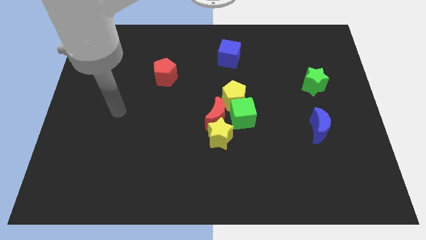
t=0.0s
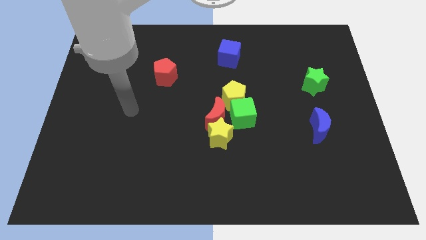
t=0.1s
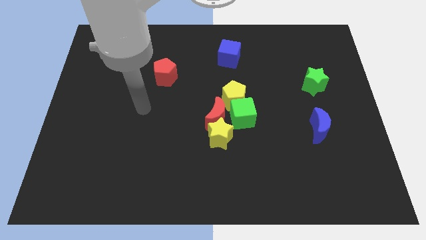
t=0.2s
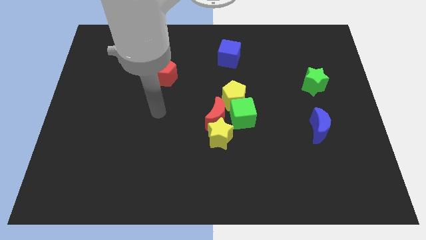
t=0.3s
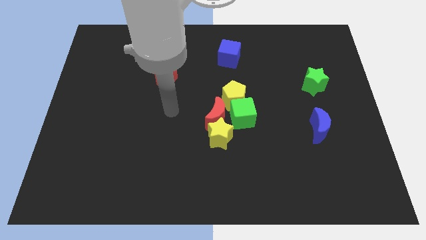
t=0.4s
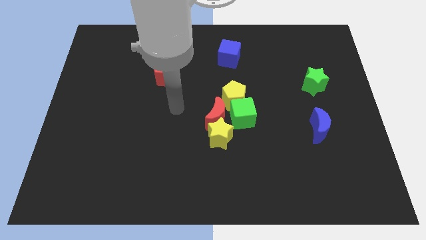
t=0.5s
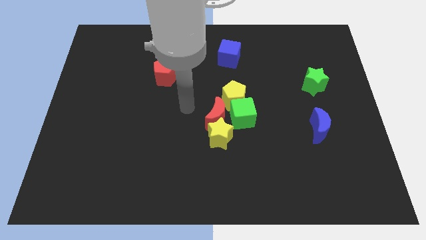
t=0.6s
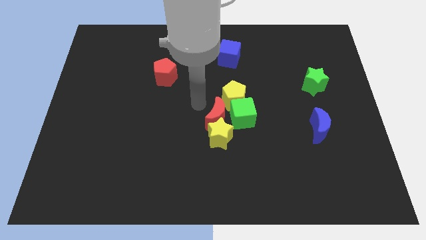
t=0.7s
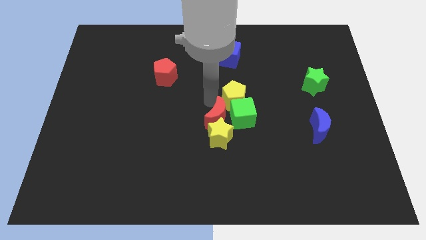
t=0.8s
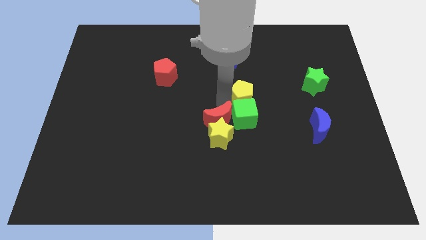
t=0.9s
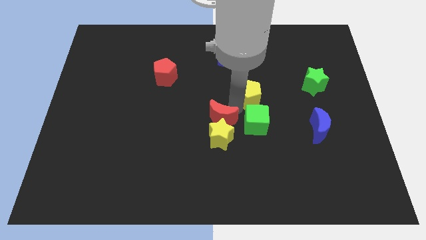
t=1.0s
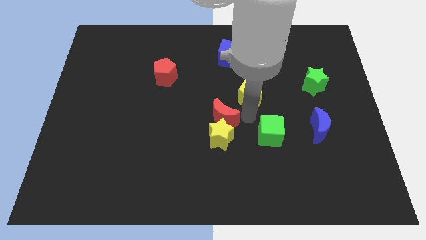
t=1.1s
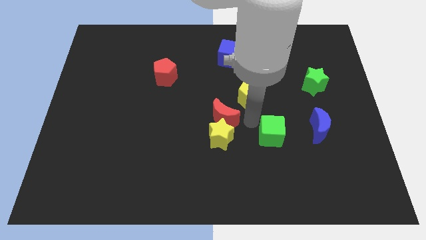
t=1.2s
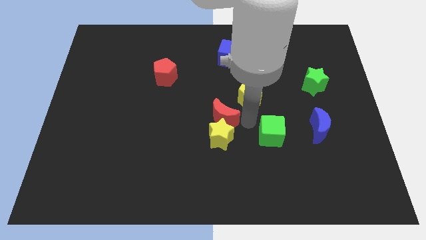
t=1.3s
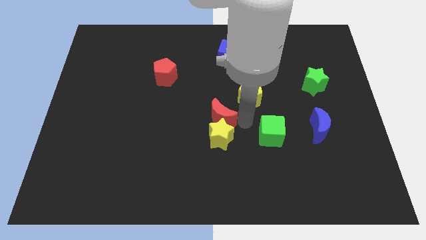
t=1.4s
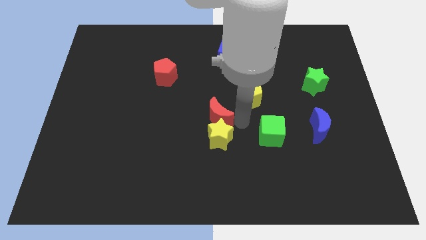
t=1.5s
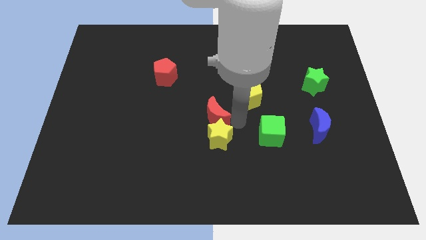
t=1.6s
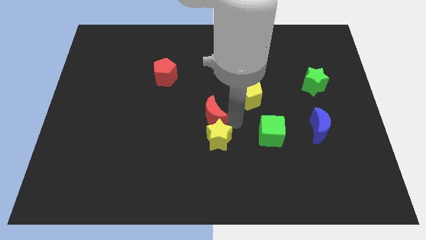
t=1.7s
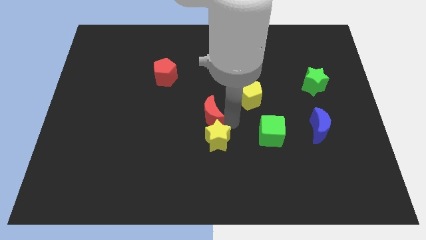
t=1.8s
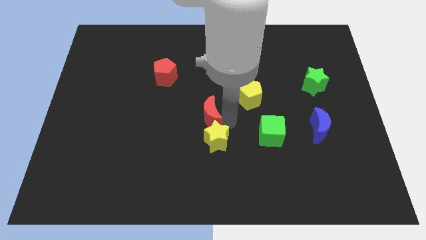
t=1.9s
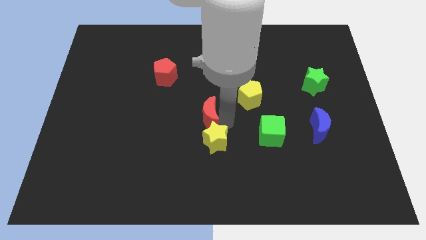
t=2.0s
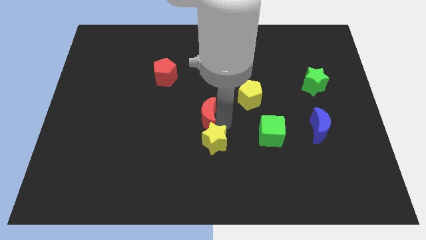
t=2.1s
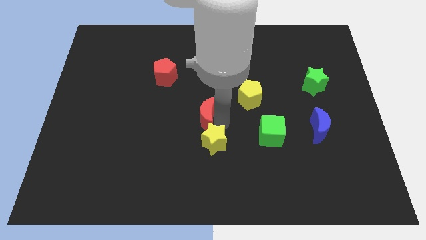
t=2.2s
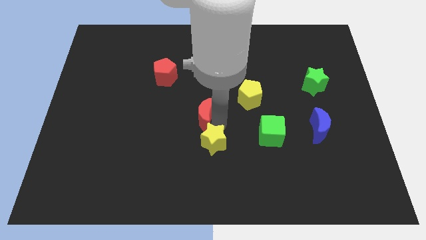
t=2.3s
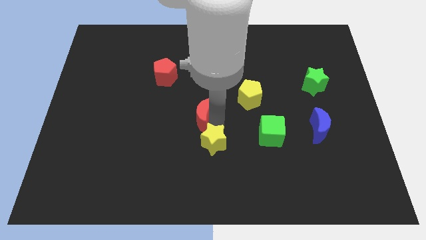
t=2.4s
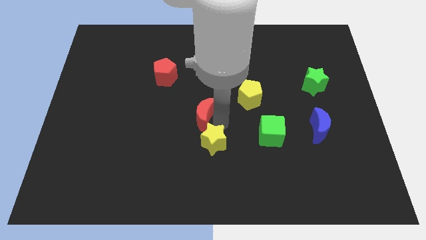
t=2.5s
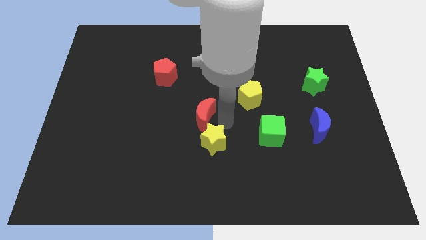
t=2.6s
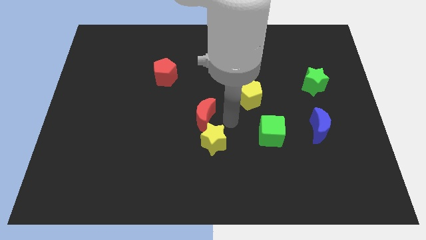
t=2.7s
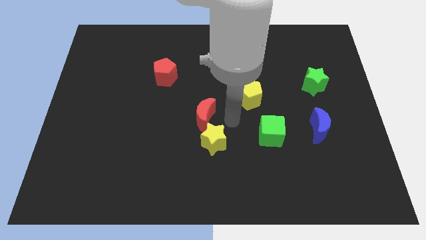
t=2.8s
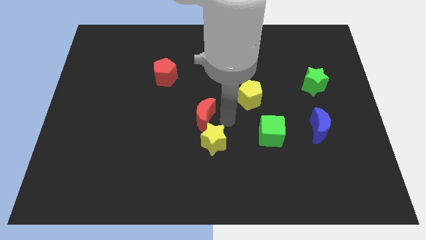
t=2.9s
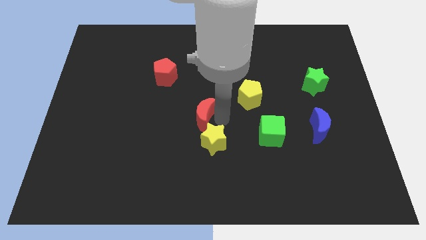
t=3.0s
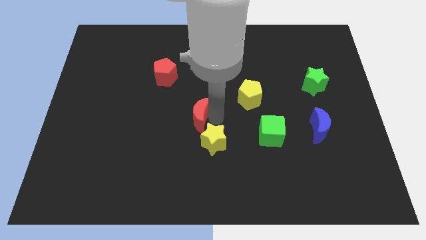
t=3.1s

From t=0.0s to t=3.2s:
move the red moon away from the yellow star, green cube, and yellow pentagon

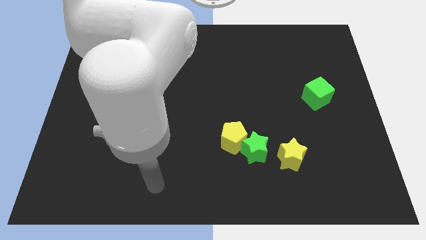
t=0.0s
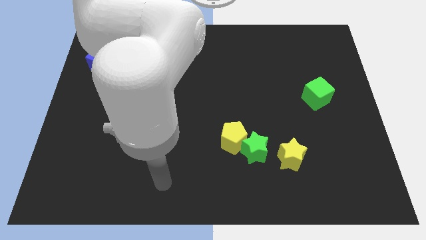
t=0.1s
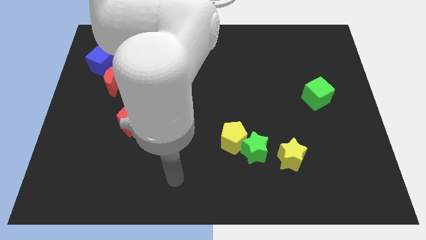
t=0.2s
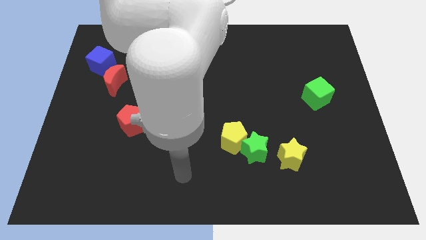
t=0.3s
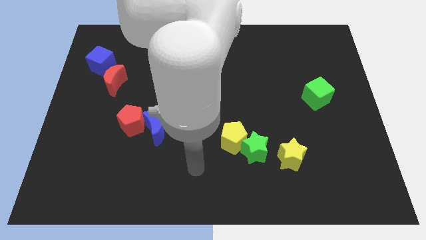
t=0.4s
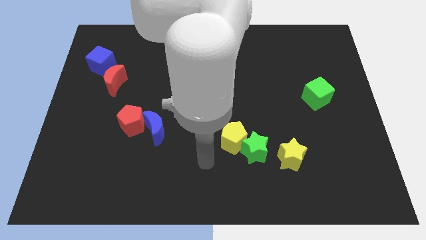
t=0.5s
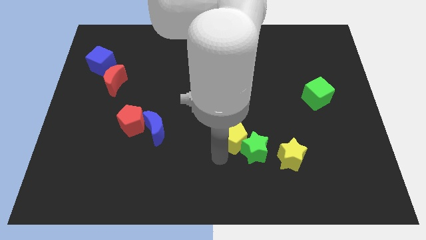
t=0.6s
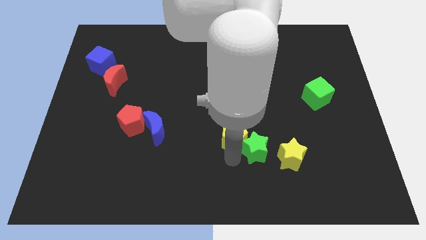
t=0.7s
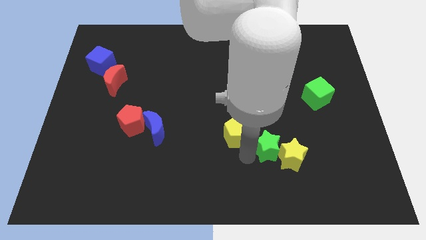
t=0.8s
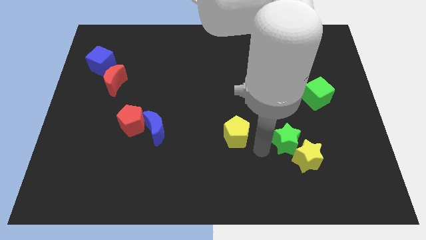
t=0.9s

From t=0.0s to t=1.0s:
move the yellow pentagon away from the green star

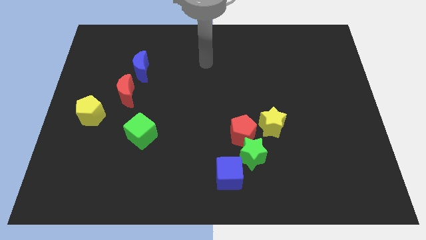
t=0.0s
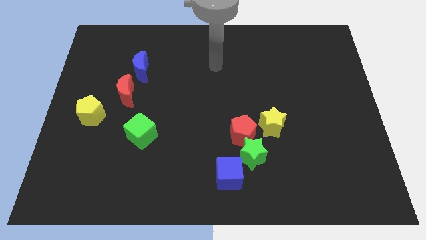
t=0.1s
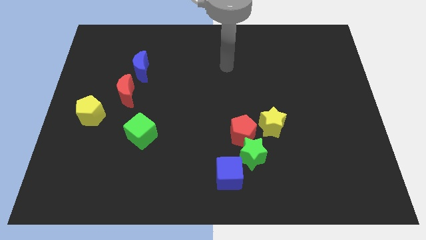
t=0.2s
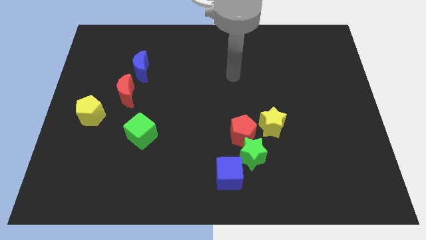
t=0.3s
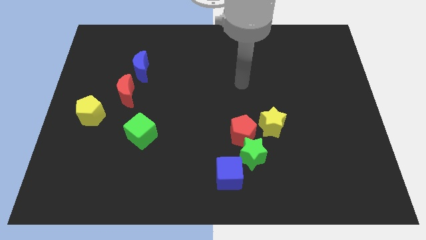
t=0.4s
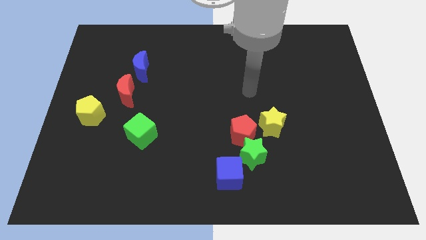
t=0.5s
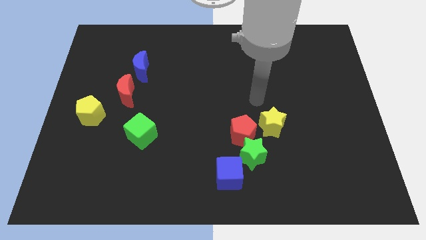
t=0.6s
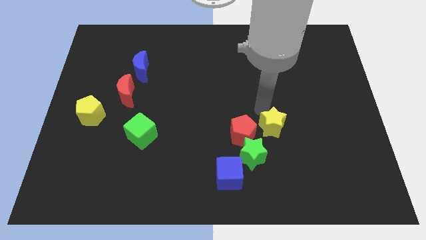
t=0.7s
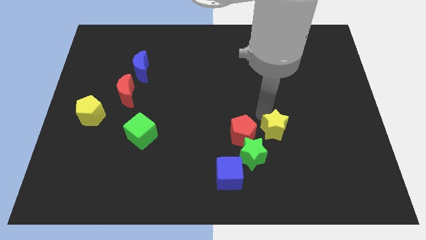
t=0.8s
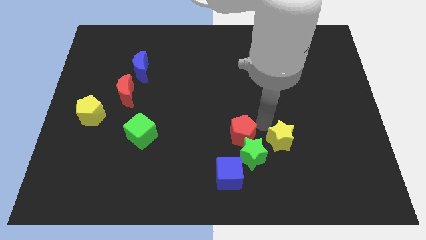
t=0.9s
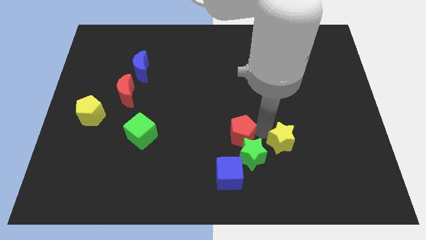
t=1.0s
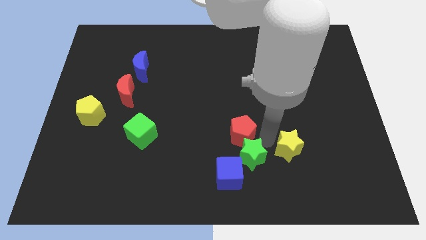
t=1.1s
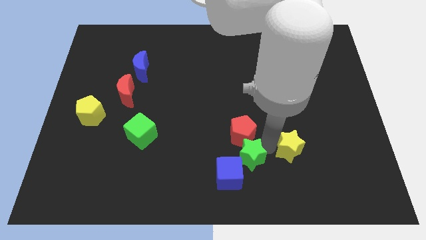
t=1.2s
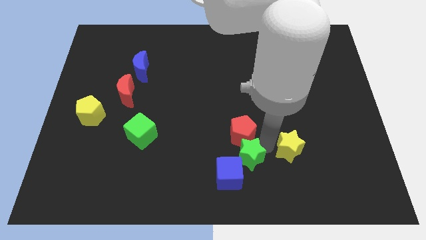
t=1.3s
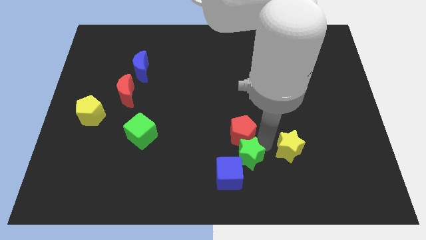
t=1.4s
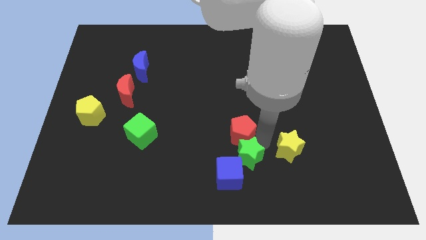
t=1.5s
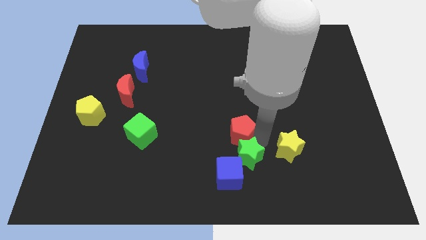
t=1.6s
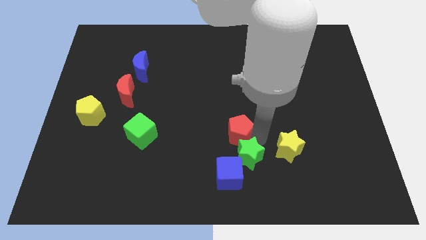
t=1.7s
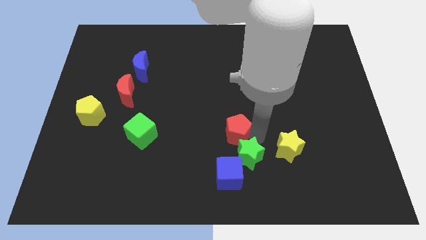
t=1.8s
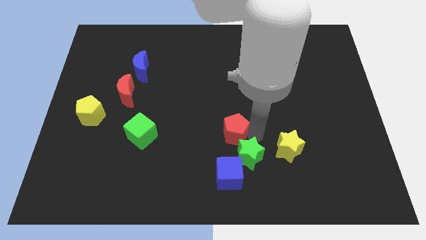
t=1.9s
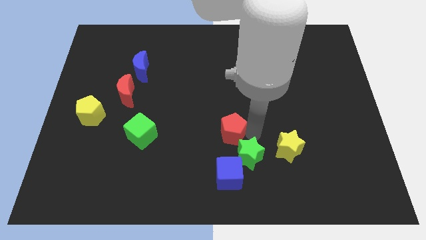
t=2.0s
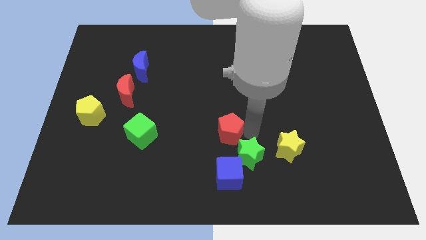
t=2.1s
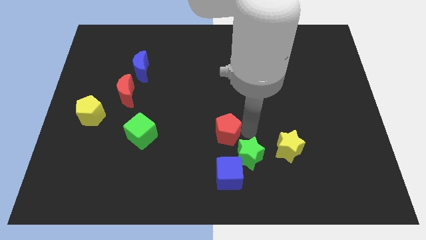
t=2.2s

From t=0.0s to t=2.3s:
move the red pentagon away from the green star and yellow star

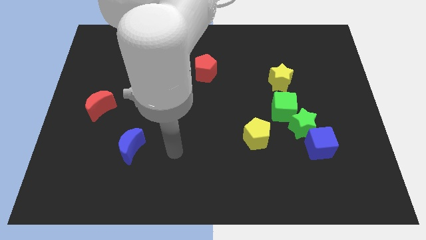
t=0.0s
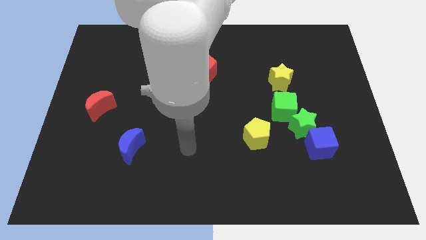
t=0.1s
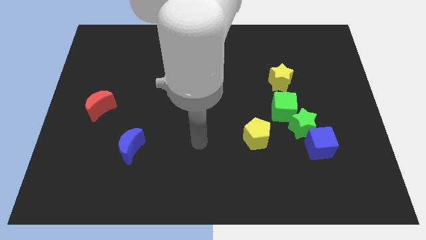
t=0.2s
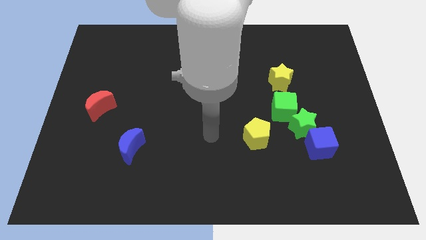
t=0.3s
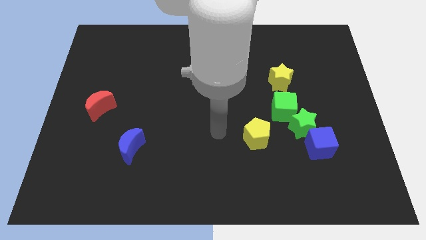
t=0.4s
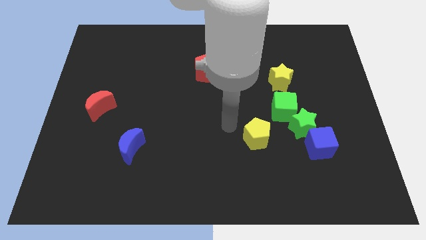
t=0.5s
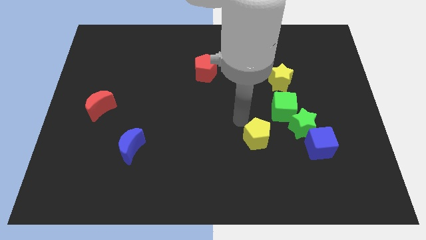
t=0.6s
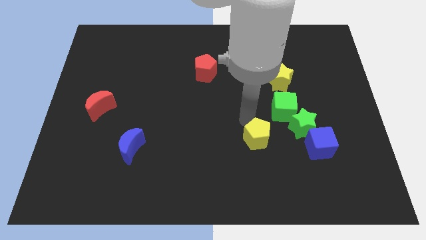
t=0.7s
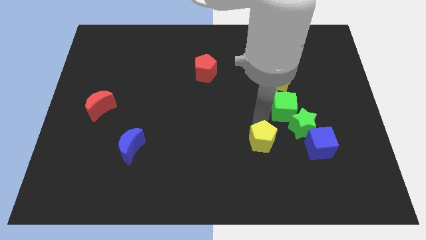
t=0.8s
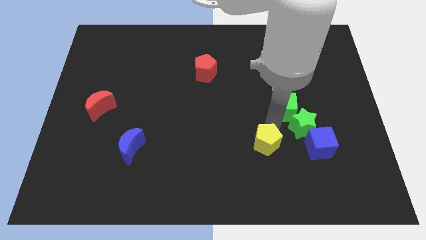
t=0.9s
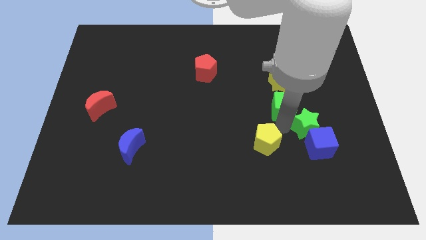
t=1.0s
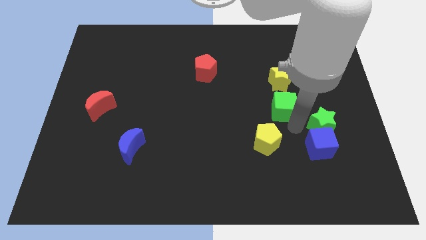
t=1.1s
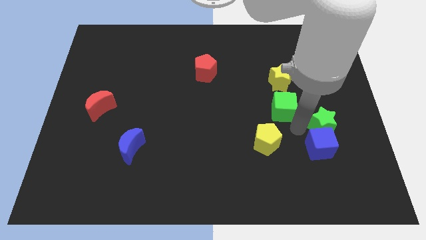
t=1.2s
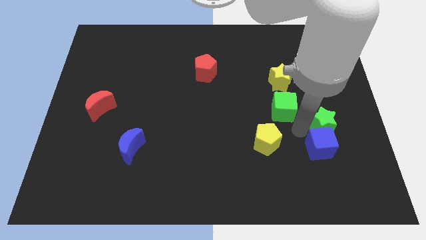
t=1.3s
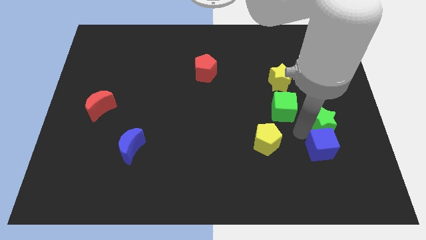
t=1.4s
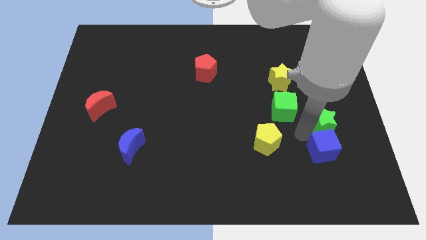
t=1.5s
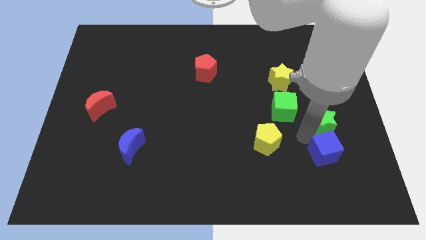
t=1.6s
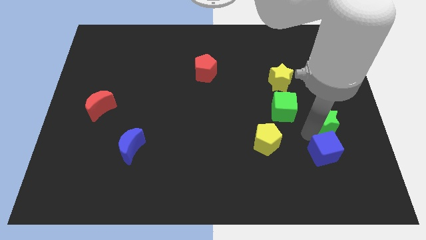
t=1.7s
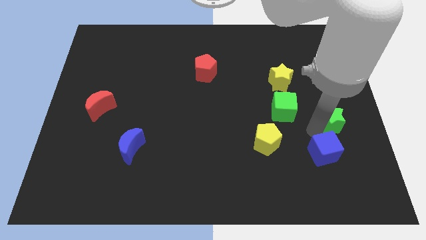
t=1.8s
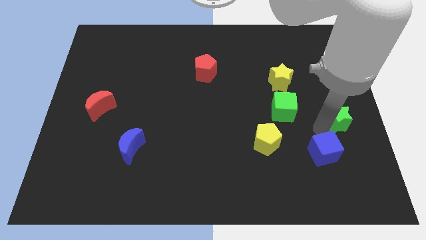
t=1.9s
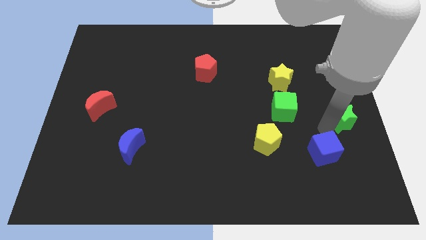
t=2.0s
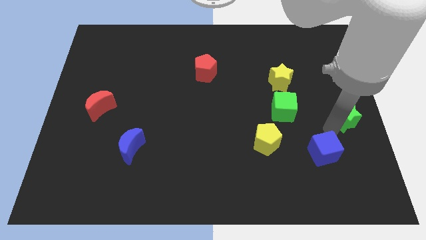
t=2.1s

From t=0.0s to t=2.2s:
separate the blue cube from the green star

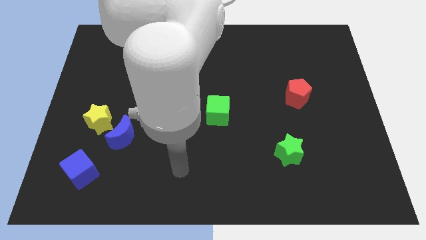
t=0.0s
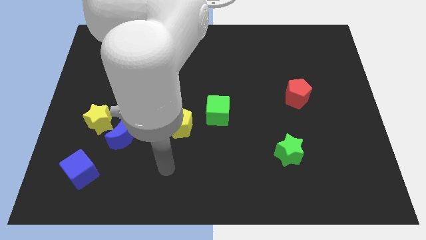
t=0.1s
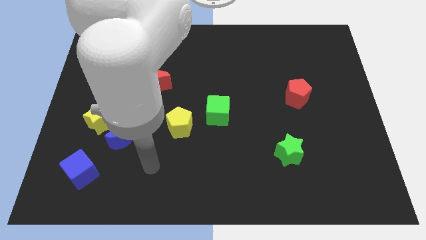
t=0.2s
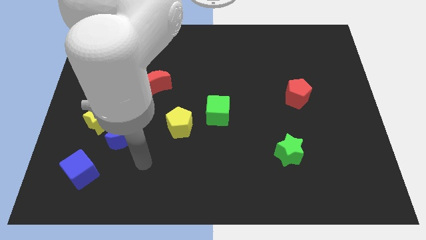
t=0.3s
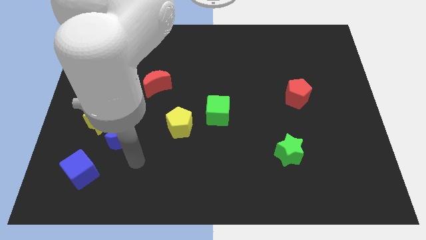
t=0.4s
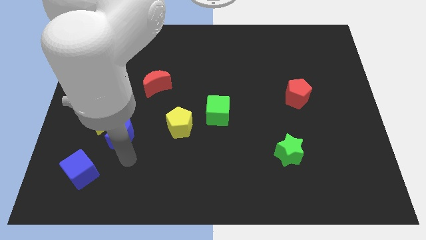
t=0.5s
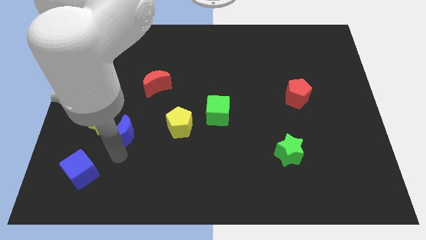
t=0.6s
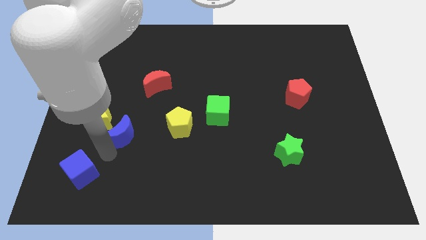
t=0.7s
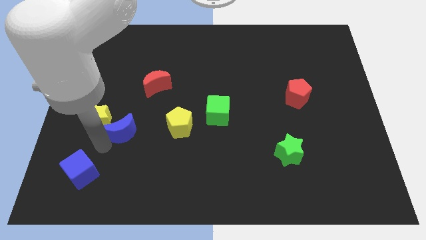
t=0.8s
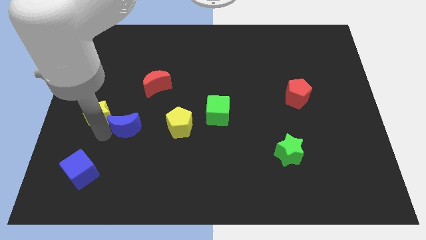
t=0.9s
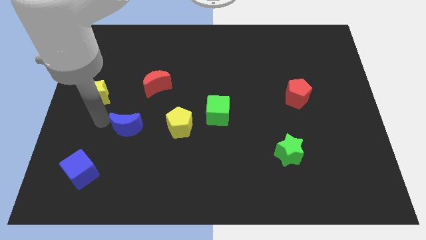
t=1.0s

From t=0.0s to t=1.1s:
move the blue moon away from the yellow star
